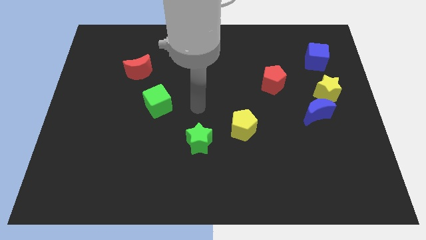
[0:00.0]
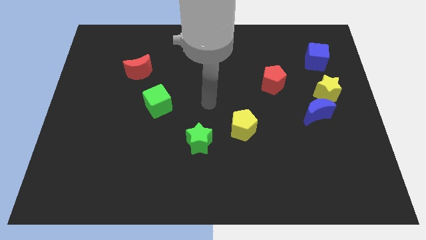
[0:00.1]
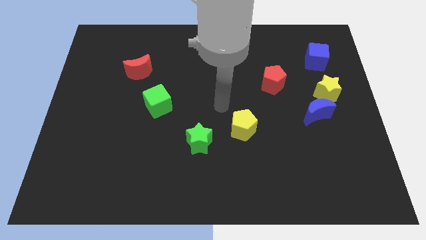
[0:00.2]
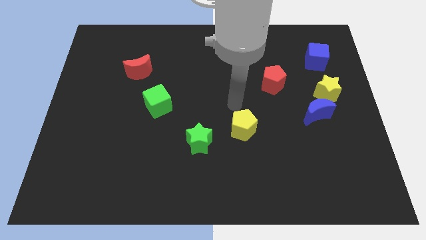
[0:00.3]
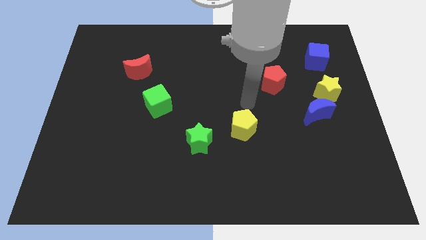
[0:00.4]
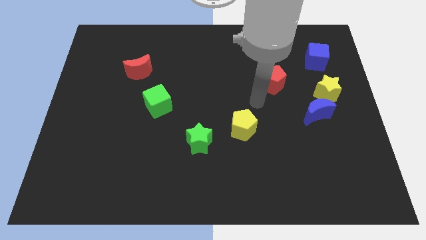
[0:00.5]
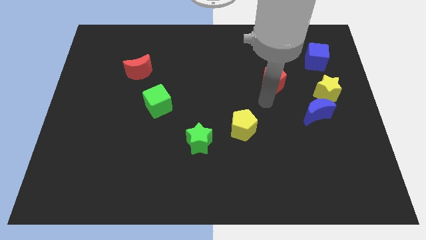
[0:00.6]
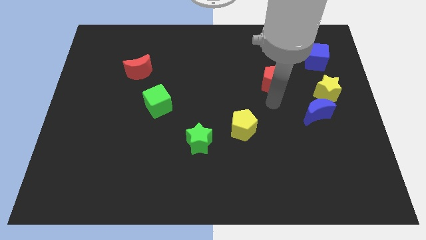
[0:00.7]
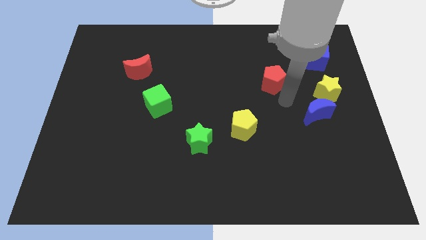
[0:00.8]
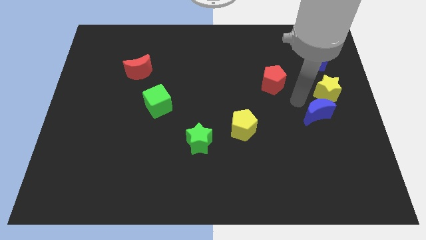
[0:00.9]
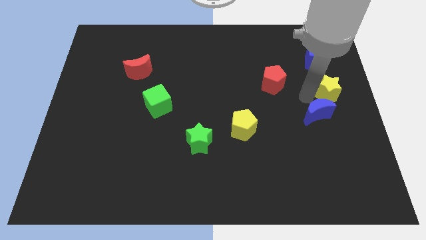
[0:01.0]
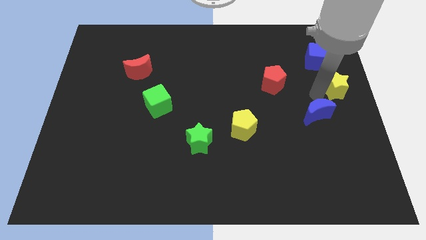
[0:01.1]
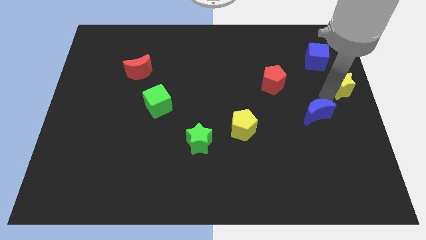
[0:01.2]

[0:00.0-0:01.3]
separate the blue moon from the yellow star

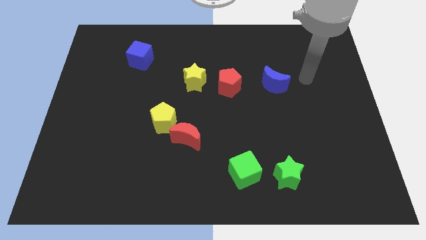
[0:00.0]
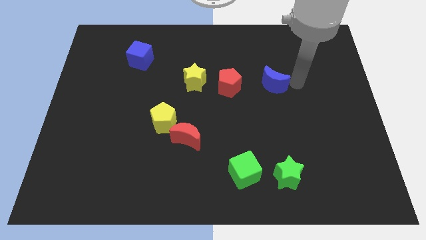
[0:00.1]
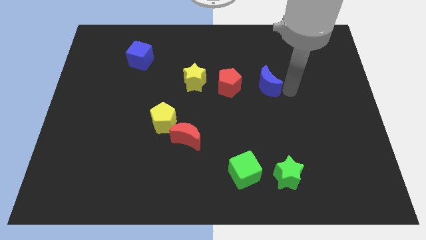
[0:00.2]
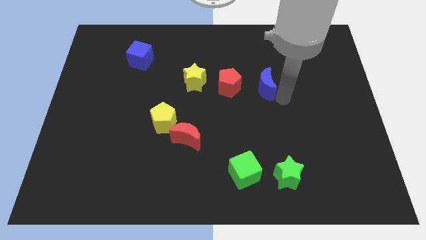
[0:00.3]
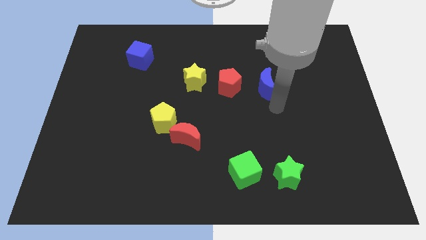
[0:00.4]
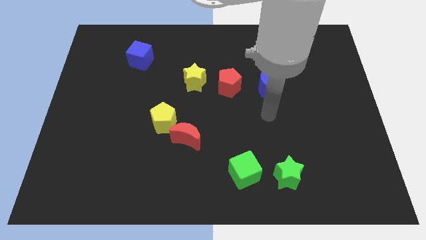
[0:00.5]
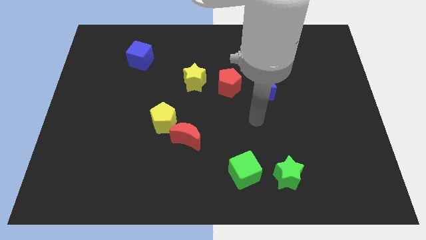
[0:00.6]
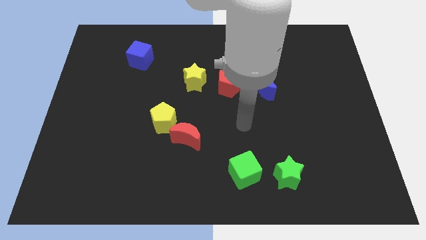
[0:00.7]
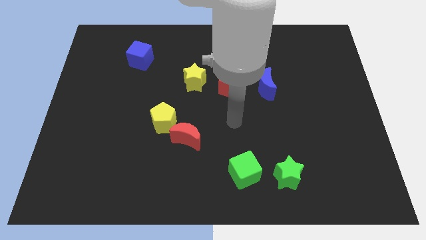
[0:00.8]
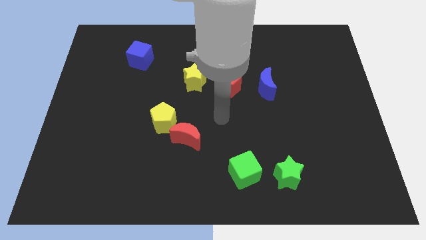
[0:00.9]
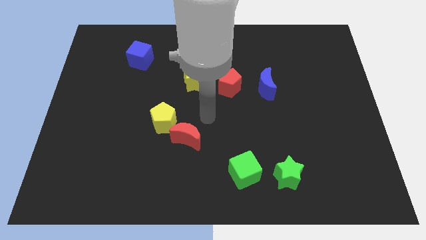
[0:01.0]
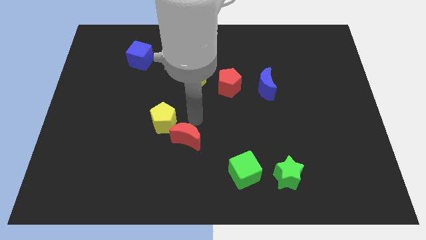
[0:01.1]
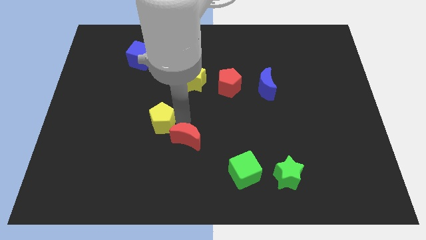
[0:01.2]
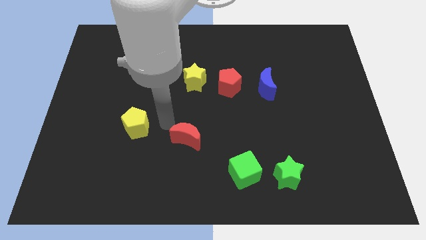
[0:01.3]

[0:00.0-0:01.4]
move the red moon away from the yellow pentagon

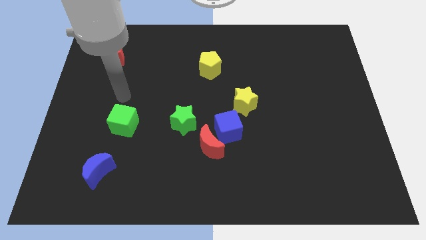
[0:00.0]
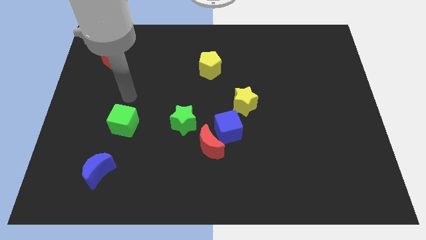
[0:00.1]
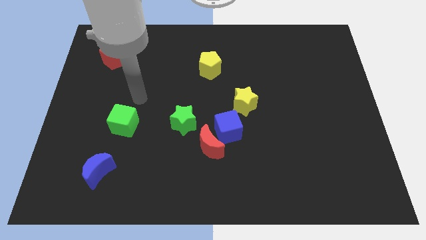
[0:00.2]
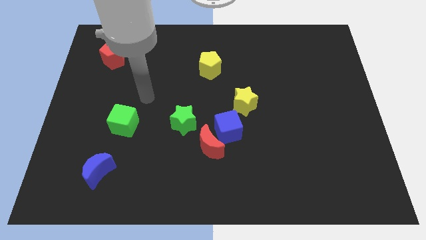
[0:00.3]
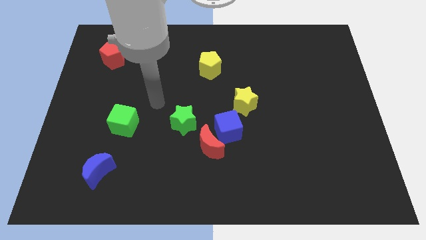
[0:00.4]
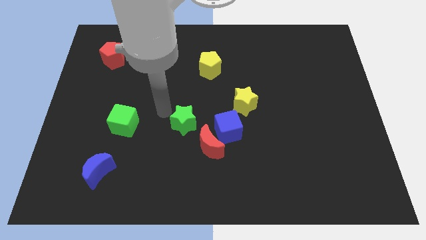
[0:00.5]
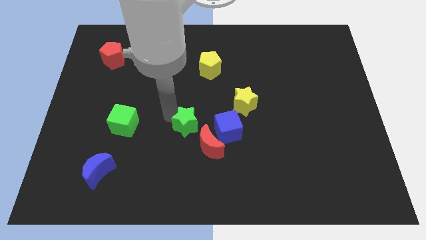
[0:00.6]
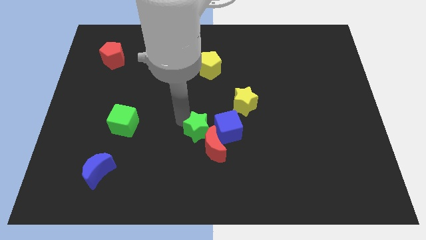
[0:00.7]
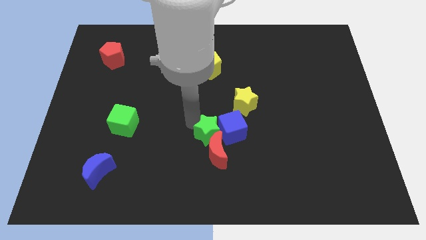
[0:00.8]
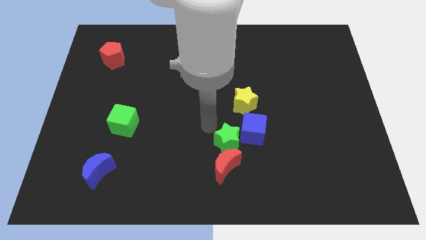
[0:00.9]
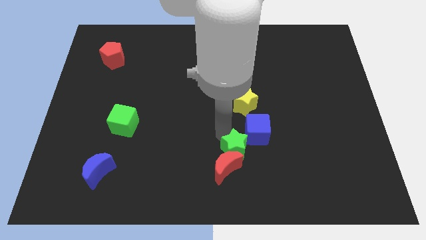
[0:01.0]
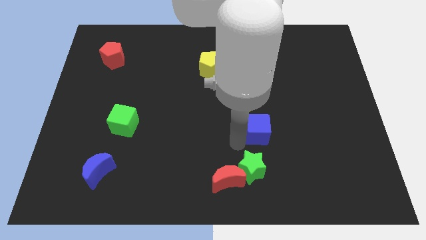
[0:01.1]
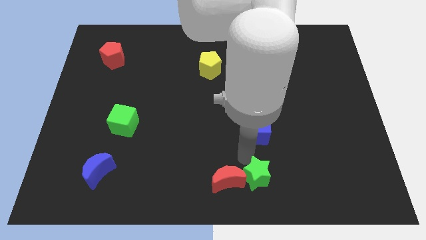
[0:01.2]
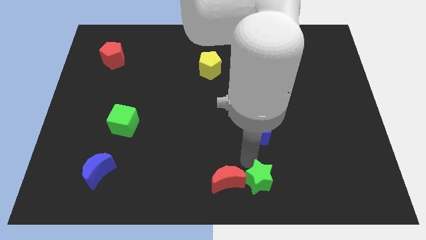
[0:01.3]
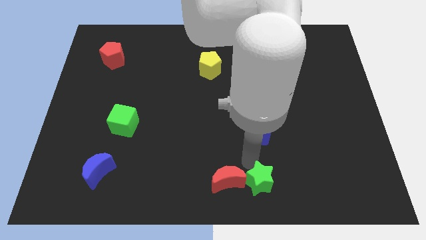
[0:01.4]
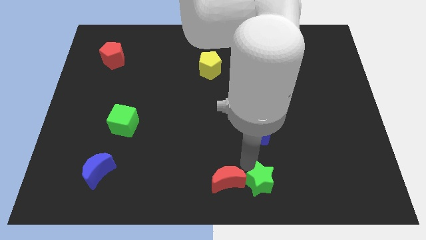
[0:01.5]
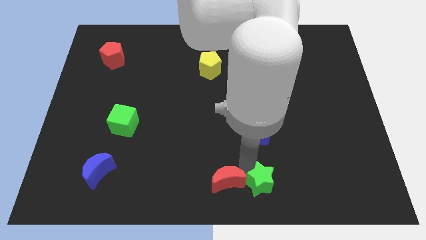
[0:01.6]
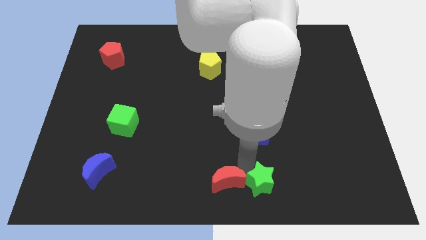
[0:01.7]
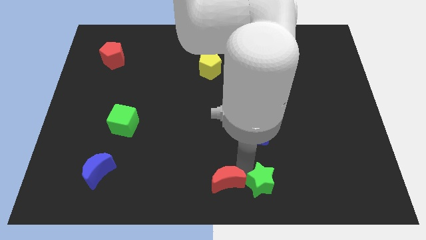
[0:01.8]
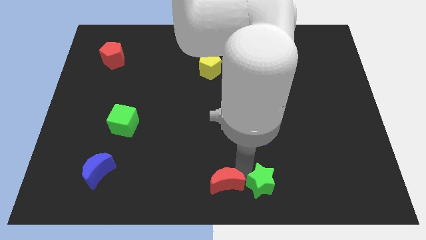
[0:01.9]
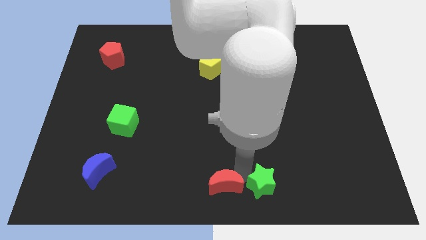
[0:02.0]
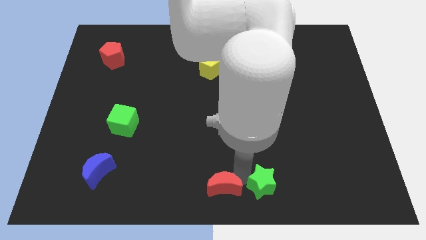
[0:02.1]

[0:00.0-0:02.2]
separate the red moon from the blue cube and green star

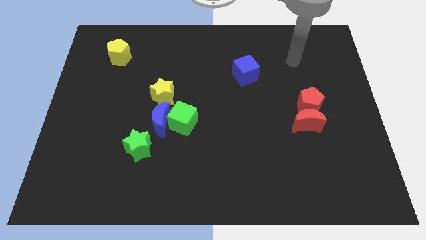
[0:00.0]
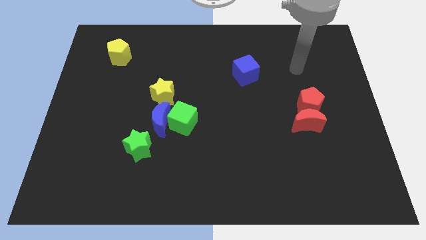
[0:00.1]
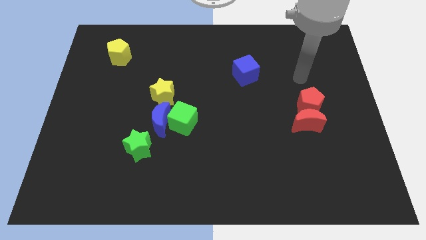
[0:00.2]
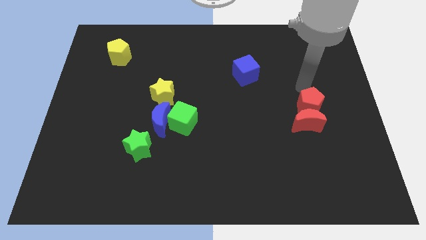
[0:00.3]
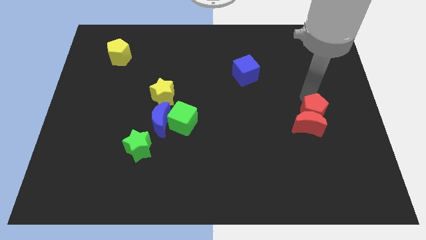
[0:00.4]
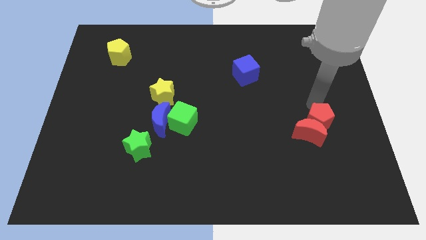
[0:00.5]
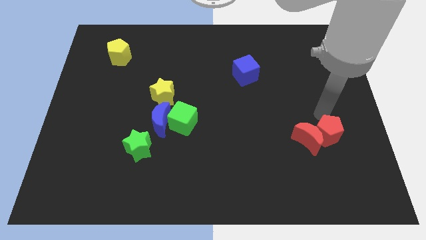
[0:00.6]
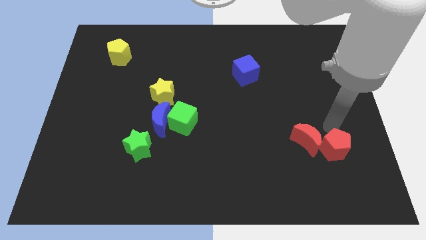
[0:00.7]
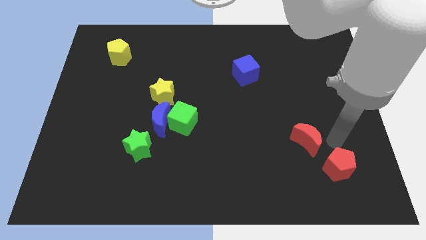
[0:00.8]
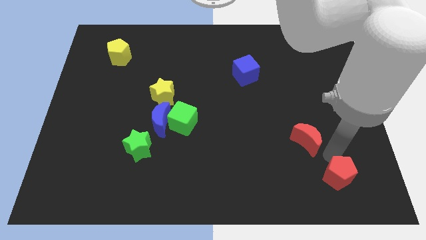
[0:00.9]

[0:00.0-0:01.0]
move the red moon away from the red pentagon

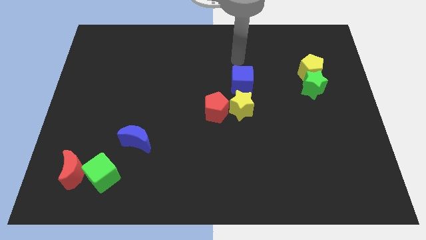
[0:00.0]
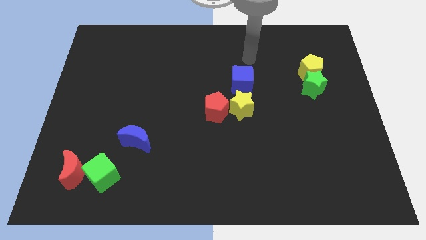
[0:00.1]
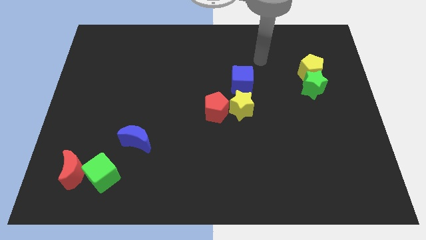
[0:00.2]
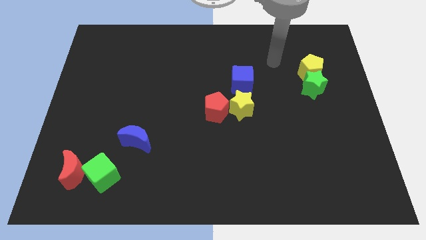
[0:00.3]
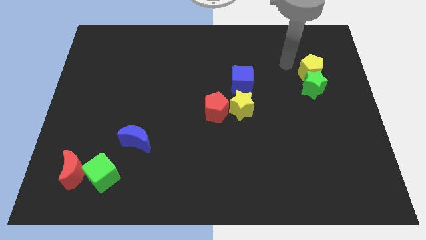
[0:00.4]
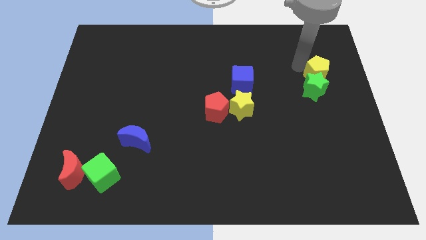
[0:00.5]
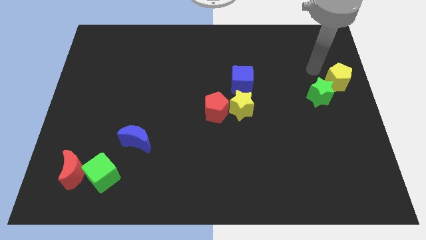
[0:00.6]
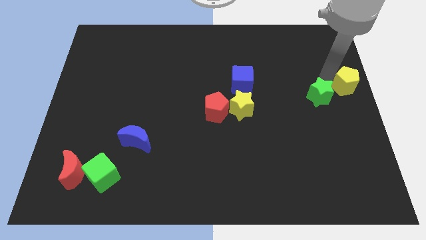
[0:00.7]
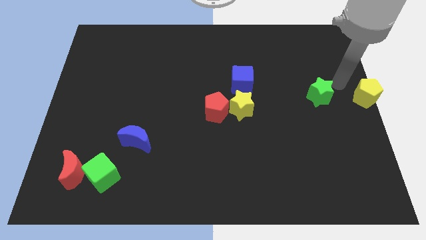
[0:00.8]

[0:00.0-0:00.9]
pull the green star apart from the yellow pentagon

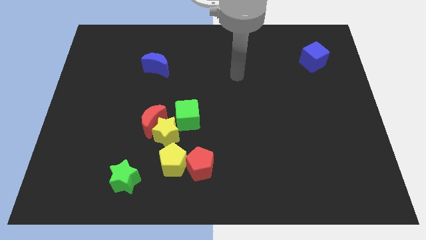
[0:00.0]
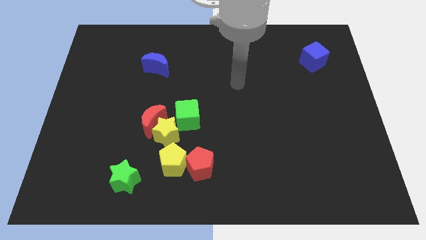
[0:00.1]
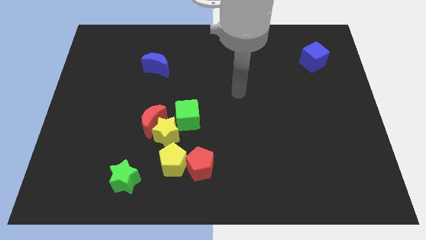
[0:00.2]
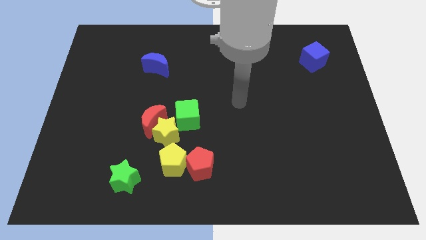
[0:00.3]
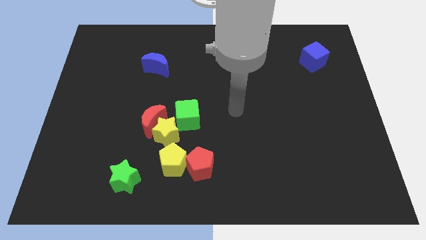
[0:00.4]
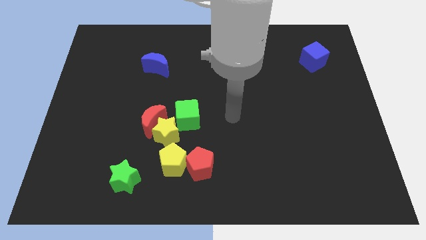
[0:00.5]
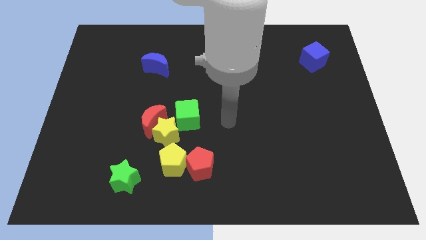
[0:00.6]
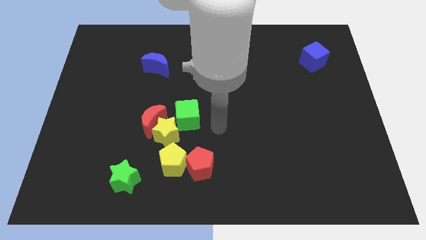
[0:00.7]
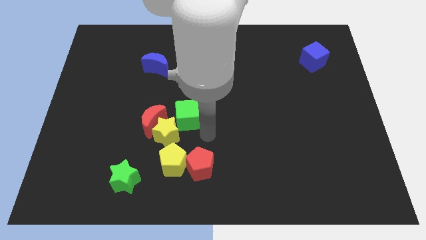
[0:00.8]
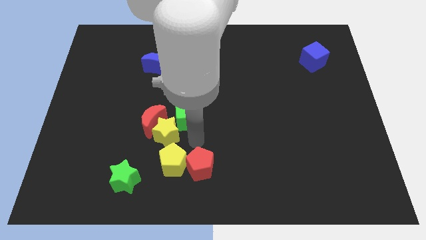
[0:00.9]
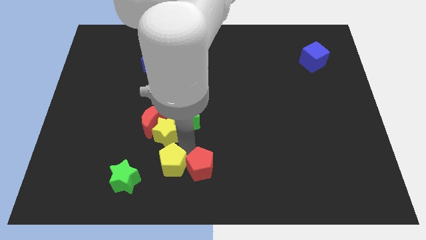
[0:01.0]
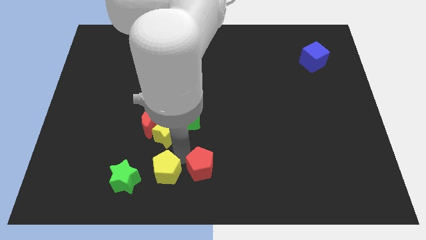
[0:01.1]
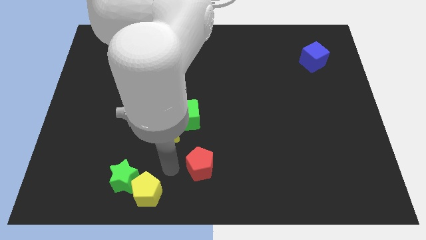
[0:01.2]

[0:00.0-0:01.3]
separate the red pentagon from the yellow pentagon

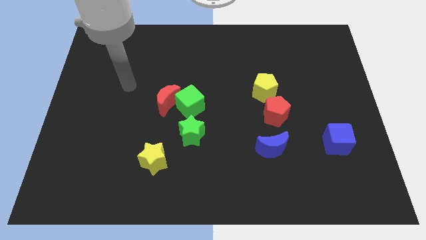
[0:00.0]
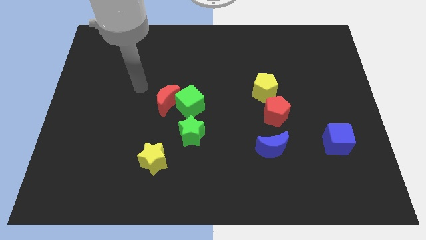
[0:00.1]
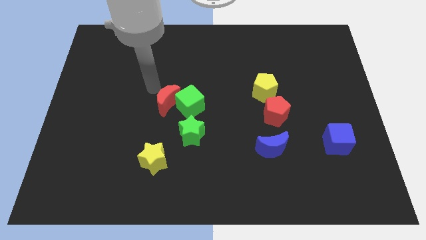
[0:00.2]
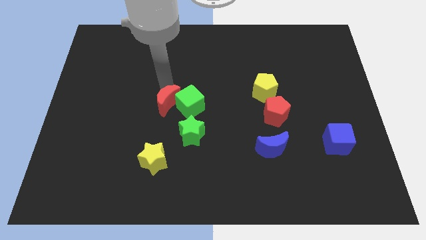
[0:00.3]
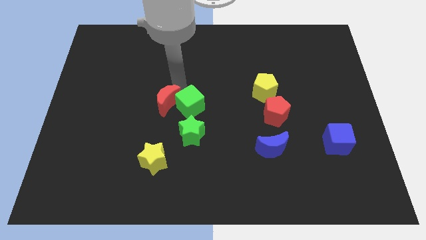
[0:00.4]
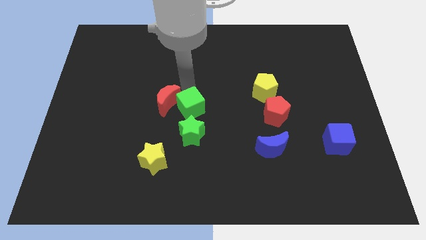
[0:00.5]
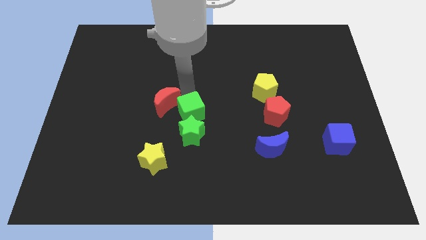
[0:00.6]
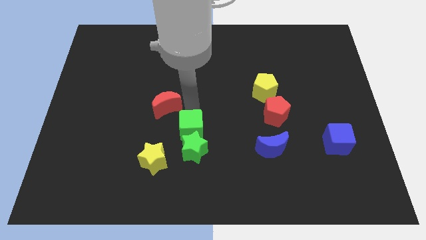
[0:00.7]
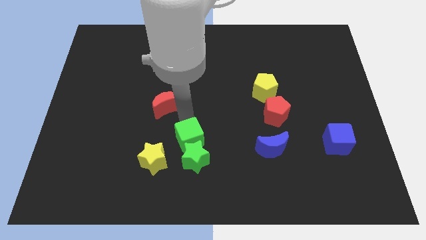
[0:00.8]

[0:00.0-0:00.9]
separate the red moon from the green cube

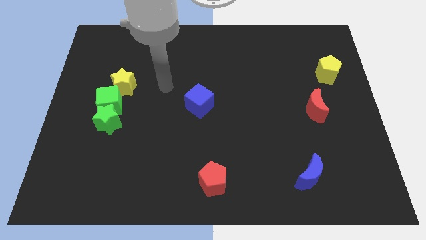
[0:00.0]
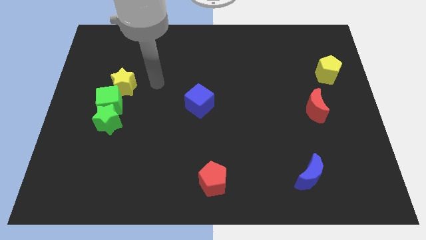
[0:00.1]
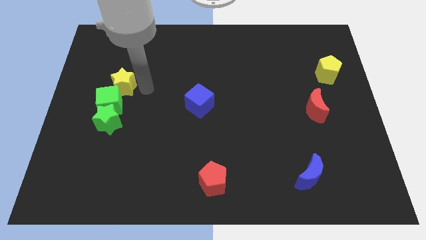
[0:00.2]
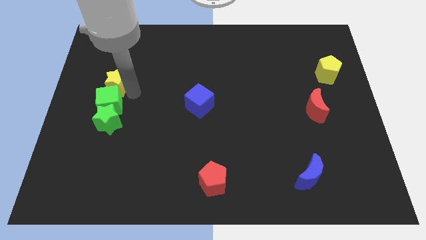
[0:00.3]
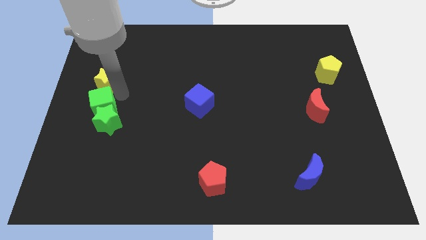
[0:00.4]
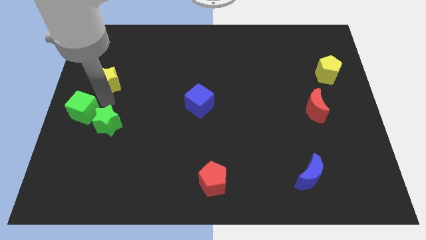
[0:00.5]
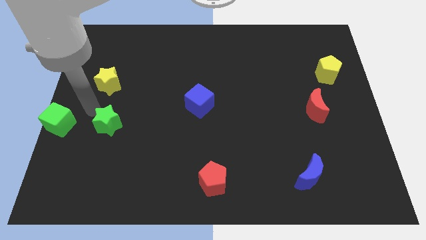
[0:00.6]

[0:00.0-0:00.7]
pull the green star apart from the green cube
